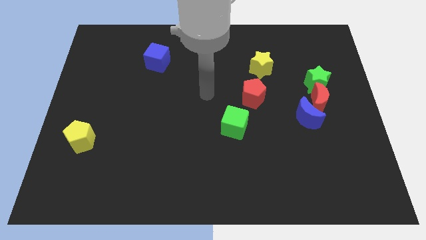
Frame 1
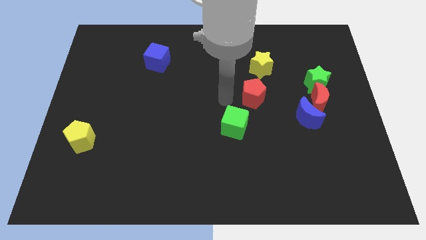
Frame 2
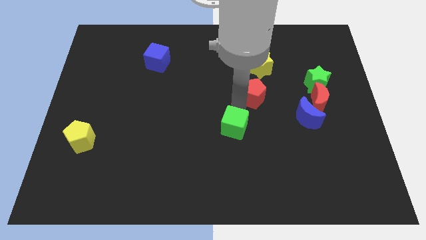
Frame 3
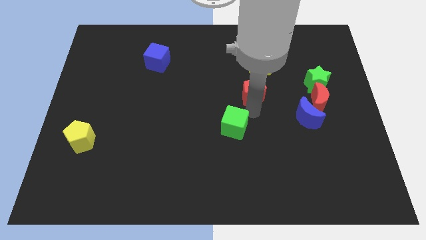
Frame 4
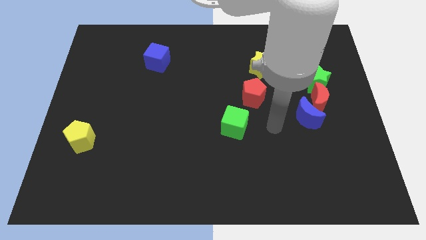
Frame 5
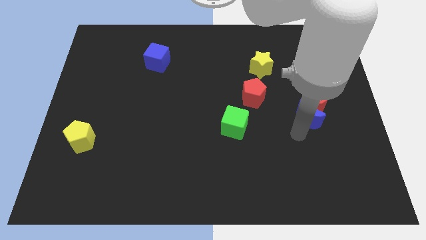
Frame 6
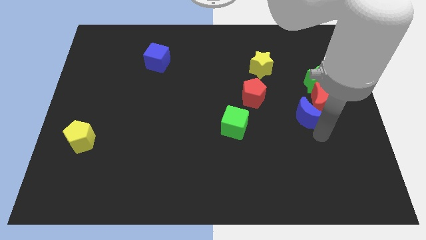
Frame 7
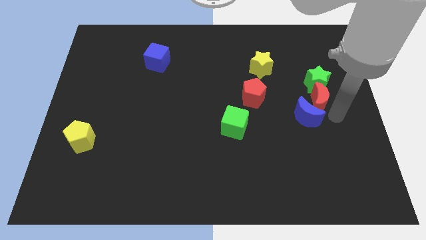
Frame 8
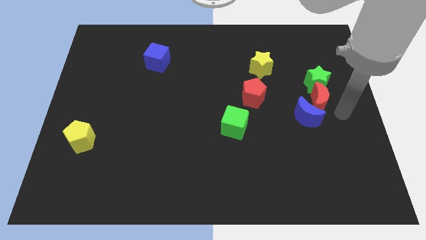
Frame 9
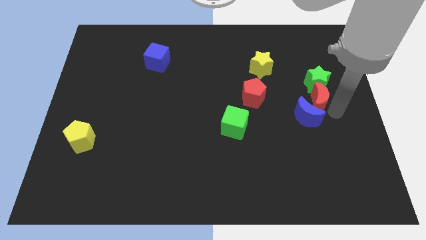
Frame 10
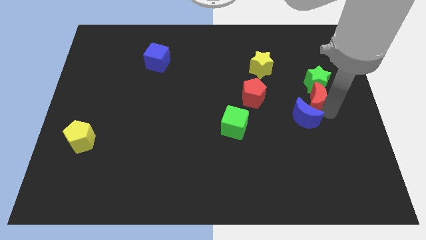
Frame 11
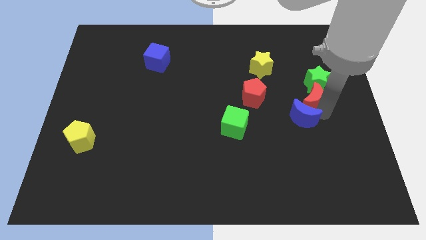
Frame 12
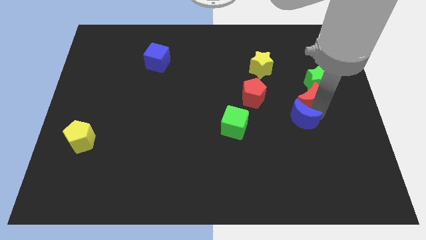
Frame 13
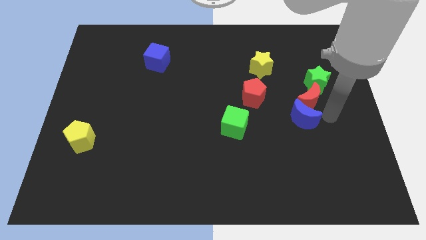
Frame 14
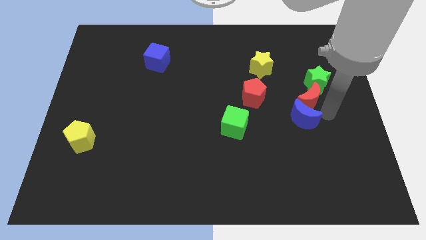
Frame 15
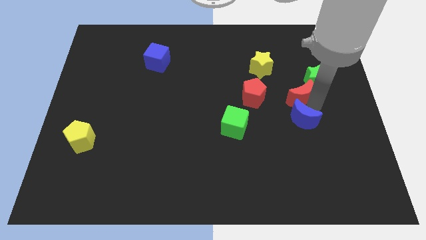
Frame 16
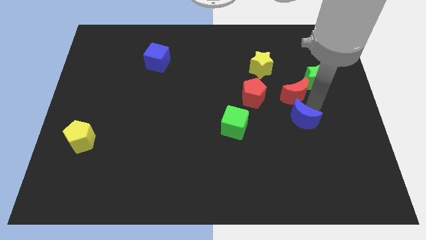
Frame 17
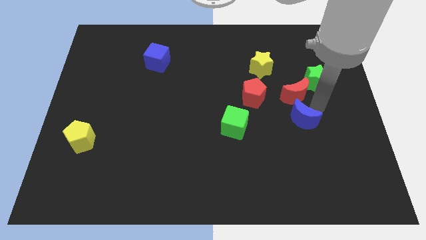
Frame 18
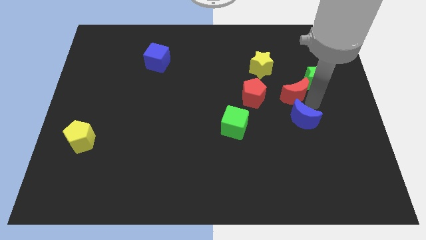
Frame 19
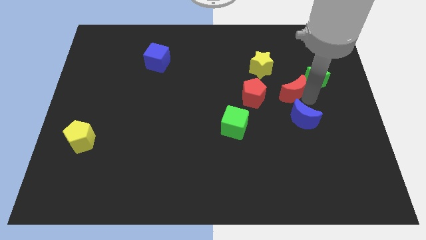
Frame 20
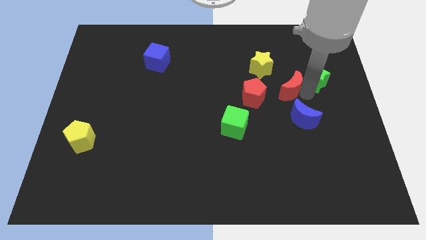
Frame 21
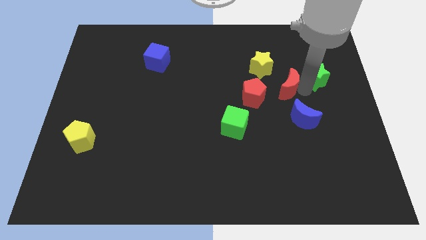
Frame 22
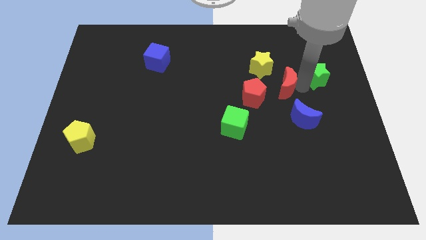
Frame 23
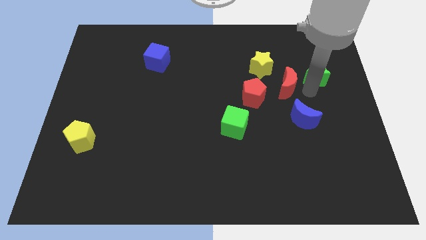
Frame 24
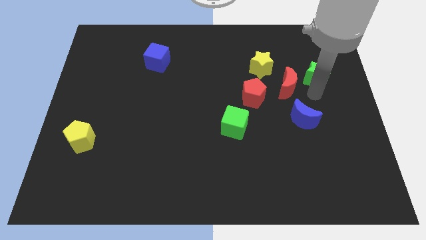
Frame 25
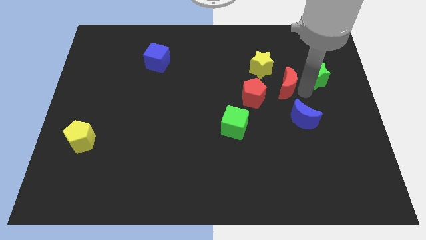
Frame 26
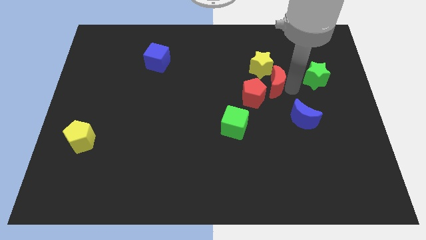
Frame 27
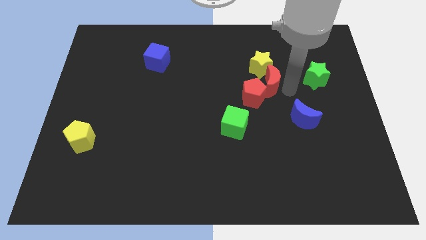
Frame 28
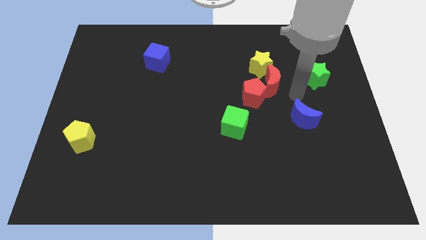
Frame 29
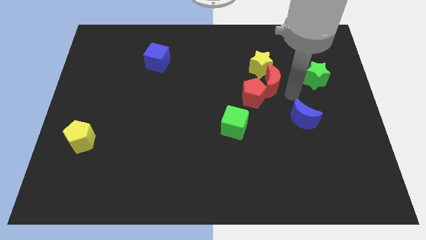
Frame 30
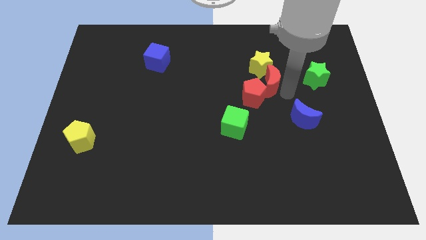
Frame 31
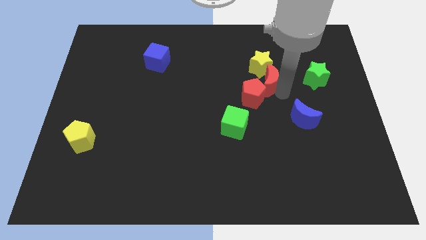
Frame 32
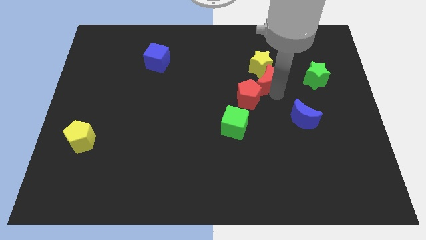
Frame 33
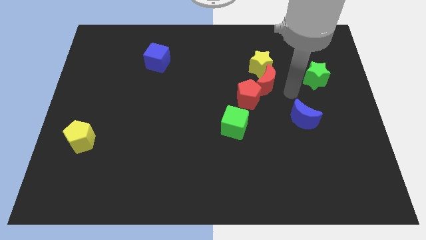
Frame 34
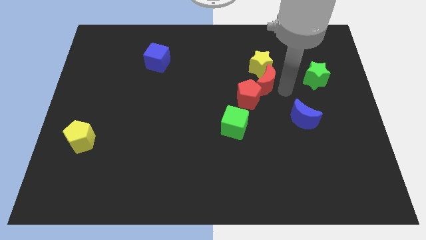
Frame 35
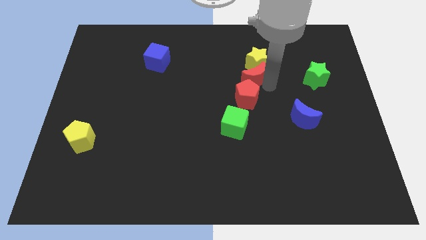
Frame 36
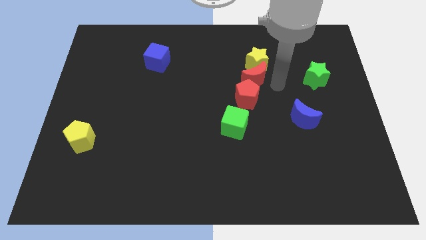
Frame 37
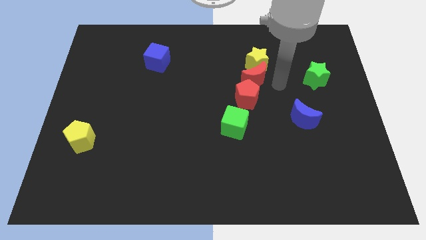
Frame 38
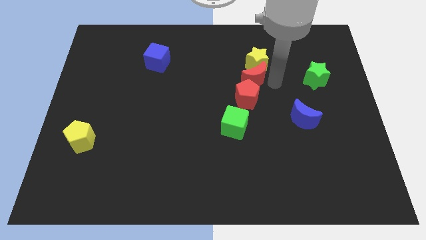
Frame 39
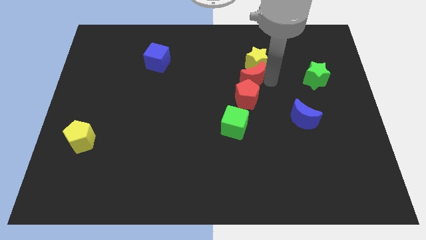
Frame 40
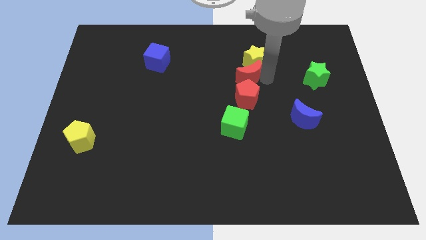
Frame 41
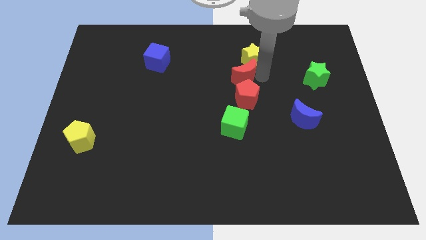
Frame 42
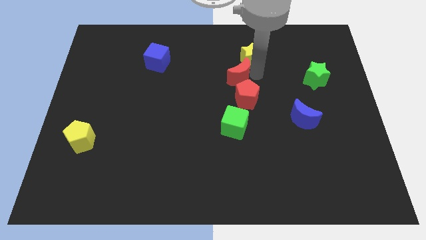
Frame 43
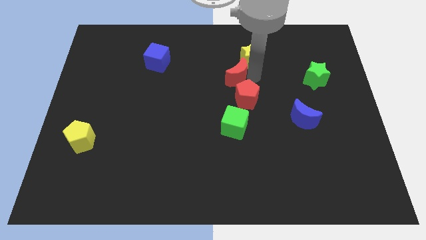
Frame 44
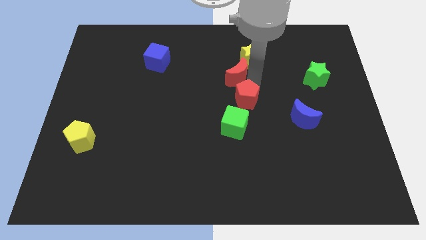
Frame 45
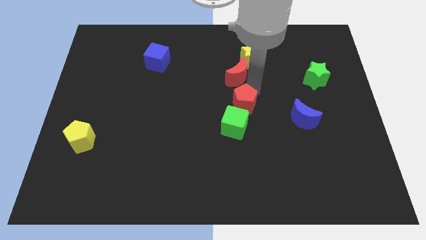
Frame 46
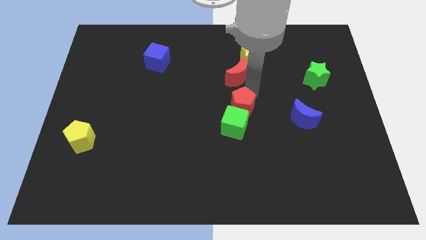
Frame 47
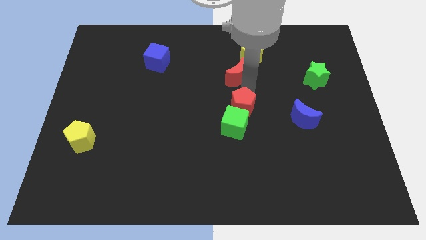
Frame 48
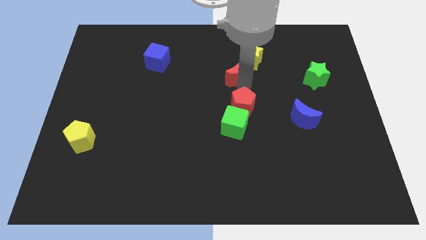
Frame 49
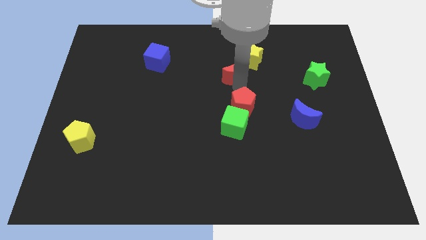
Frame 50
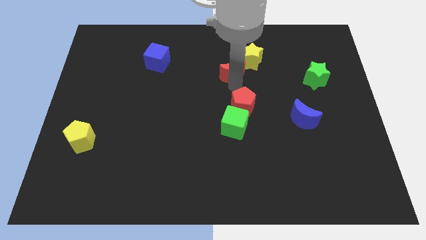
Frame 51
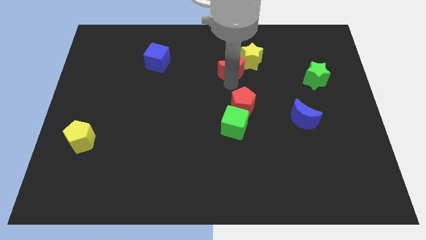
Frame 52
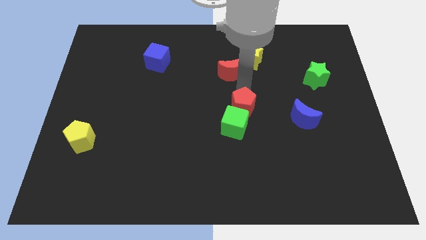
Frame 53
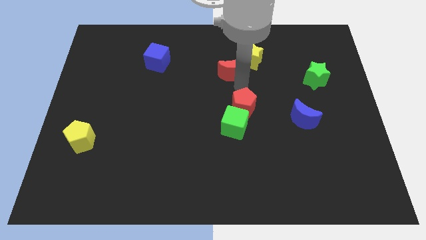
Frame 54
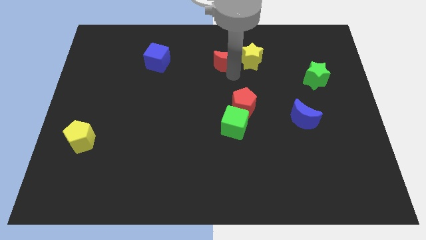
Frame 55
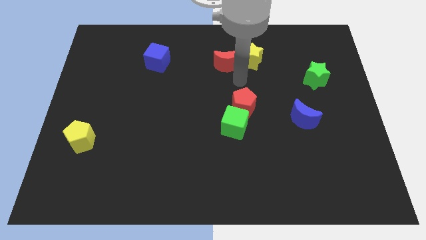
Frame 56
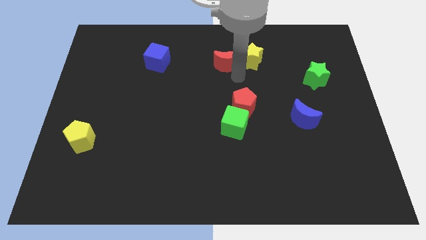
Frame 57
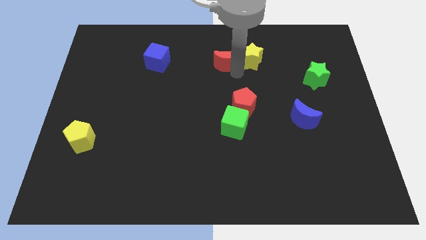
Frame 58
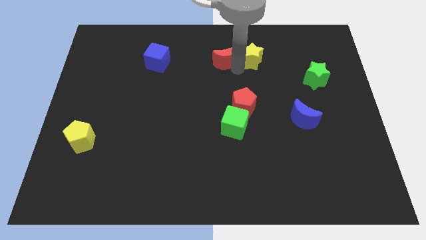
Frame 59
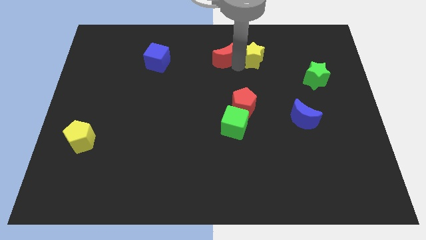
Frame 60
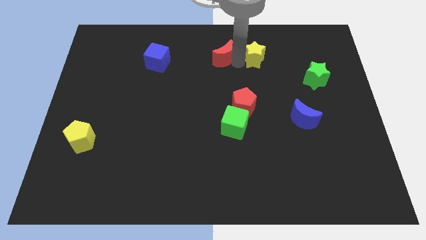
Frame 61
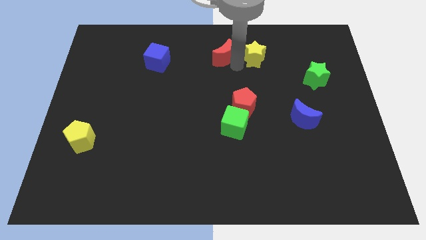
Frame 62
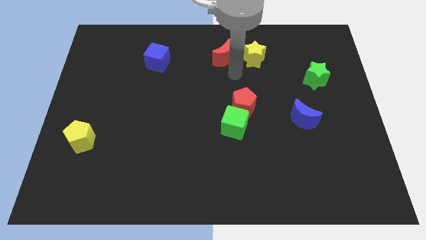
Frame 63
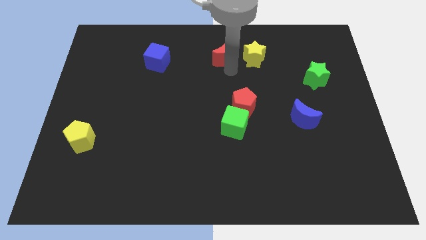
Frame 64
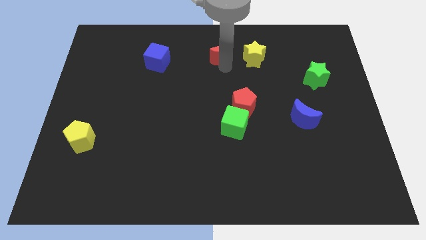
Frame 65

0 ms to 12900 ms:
put the red moon to the top side
